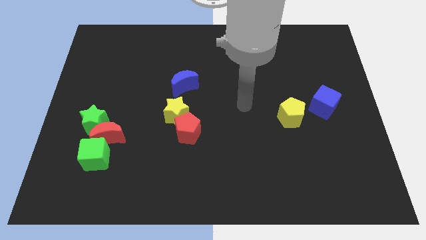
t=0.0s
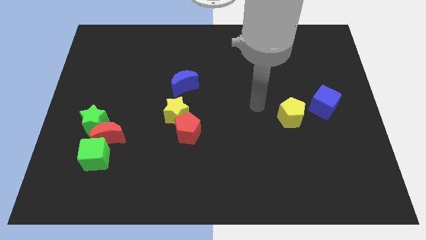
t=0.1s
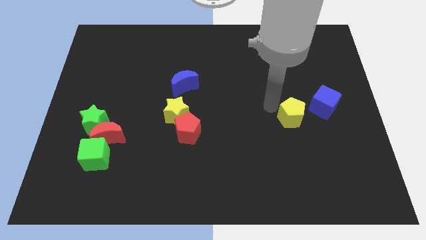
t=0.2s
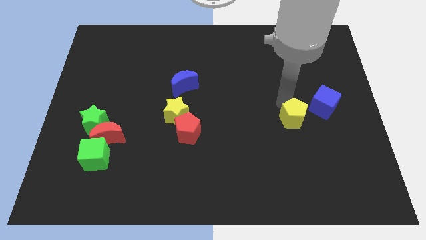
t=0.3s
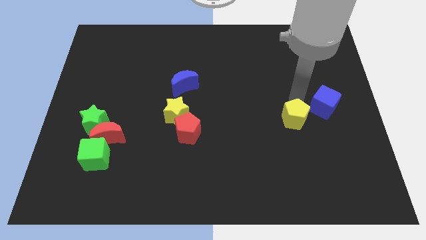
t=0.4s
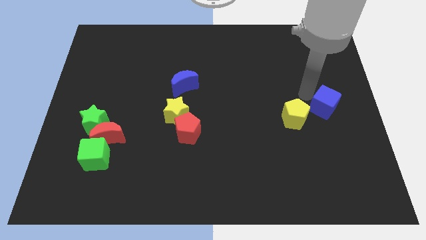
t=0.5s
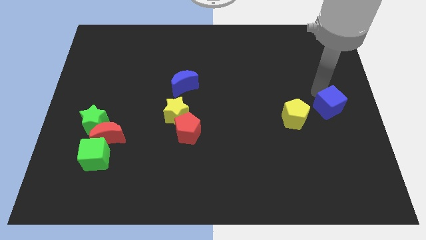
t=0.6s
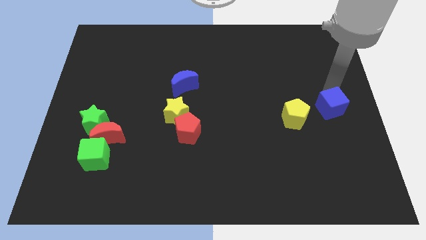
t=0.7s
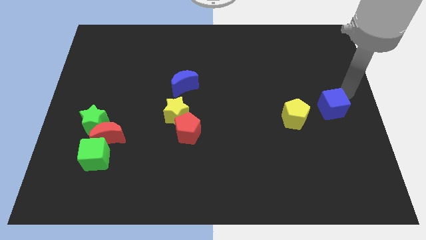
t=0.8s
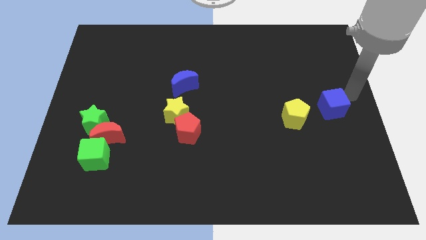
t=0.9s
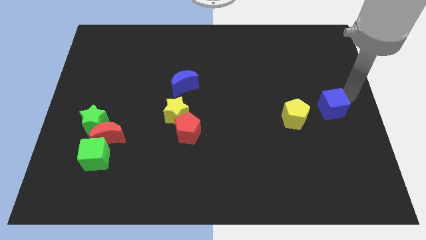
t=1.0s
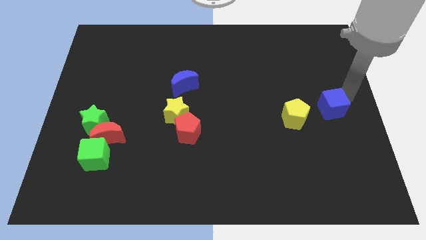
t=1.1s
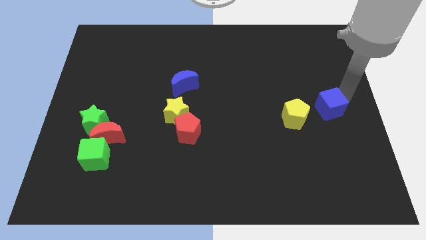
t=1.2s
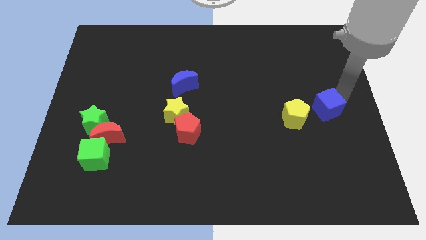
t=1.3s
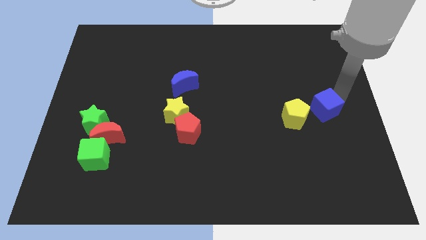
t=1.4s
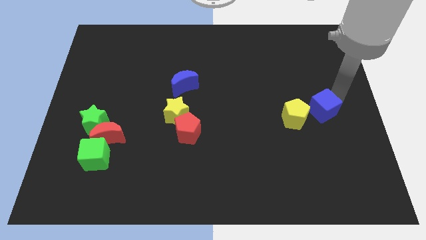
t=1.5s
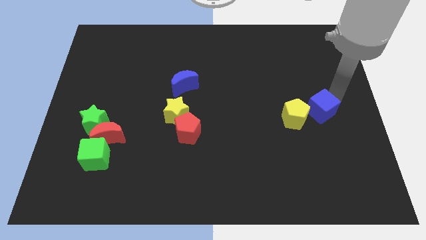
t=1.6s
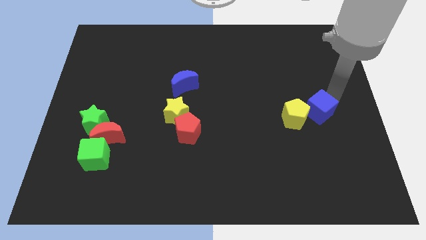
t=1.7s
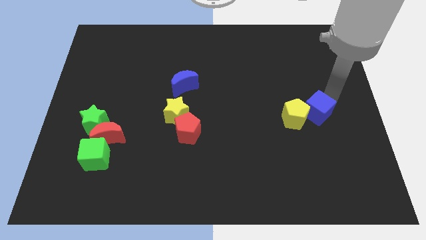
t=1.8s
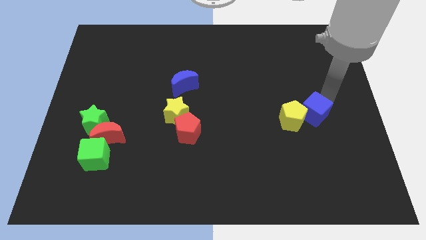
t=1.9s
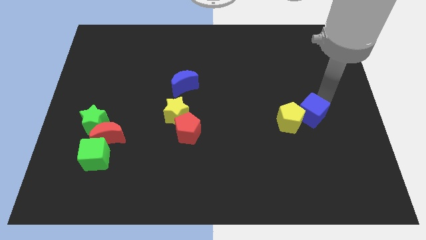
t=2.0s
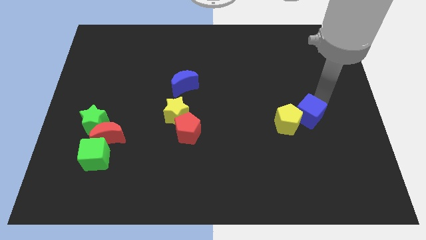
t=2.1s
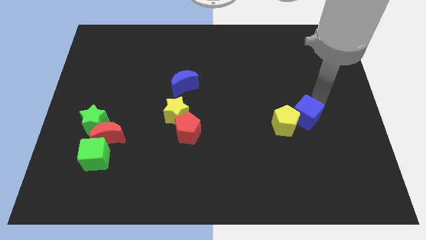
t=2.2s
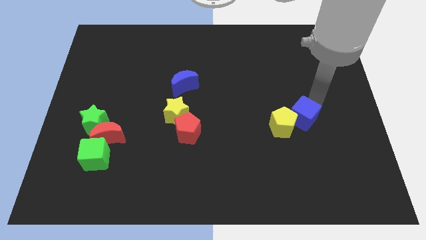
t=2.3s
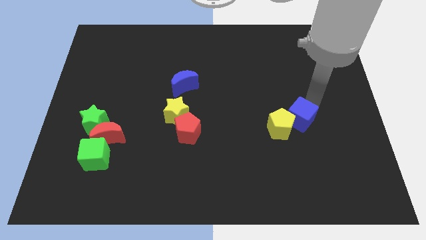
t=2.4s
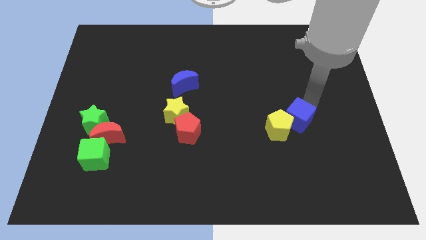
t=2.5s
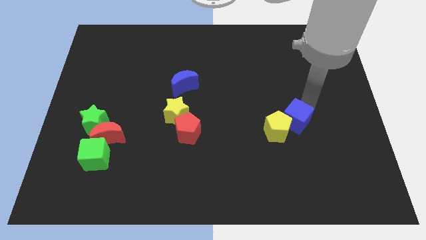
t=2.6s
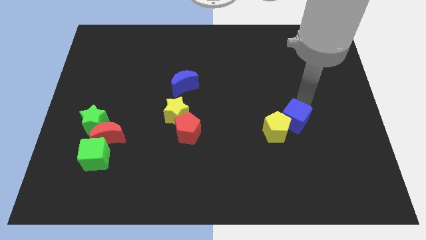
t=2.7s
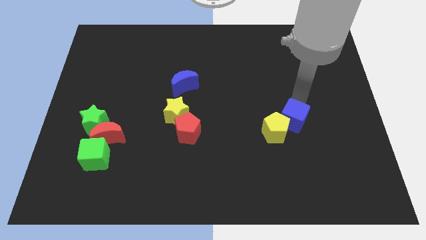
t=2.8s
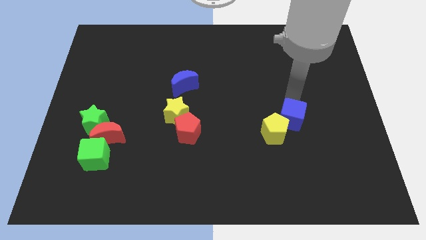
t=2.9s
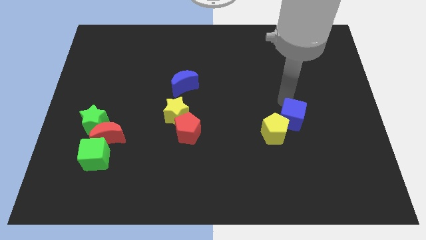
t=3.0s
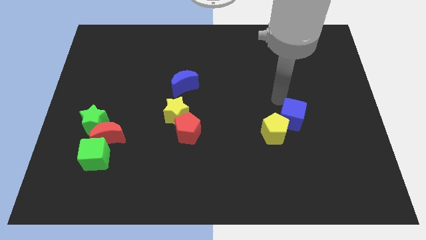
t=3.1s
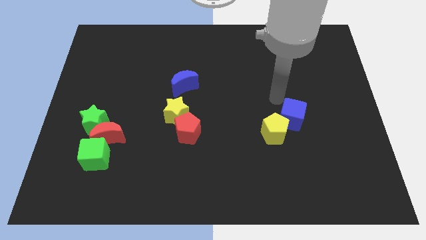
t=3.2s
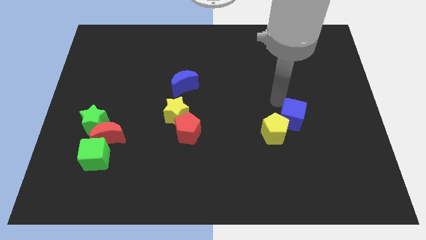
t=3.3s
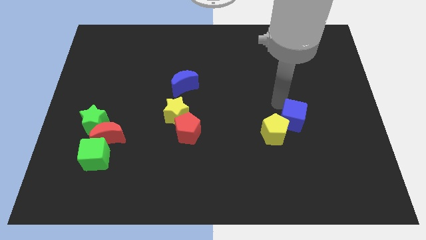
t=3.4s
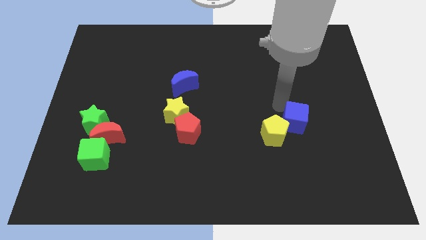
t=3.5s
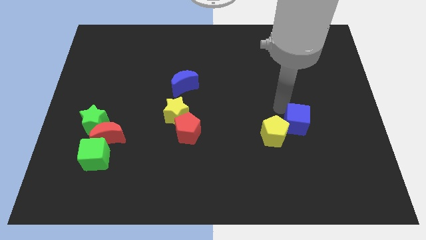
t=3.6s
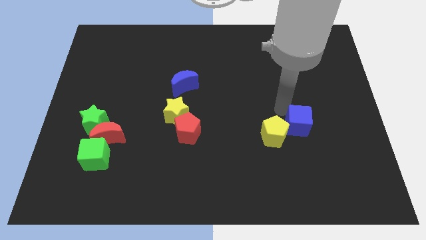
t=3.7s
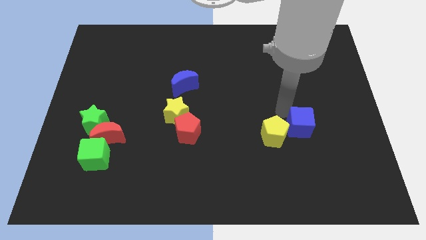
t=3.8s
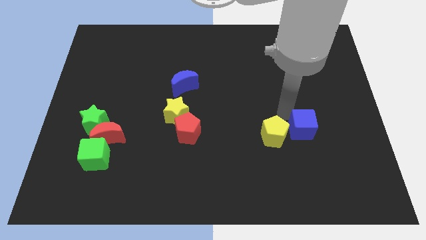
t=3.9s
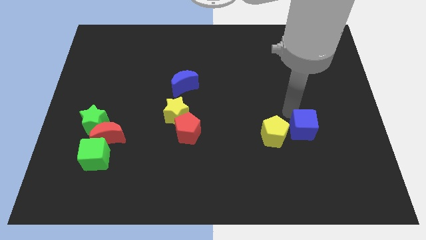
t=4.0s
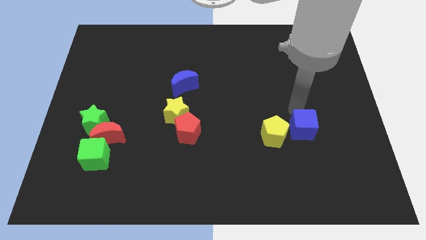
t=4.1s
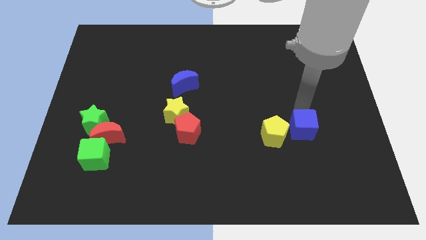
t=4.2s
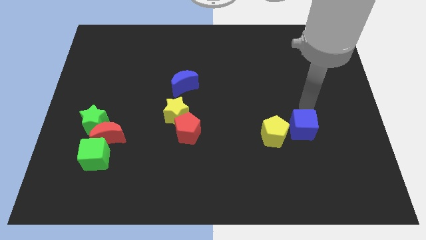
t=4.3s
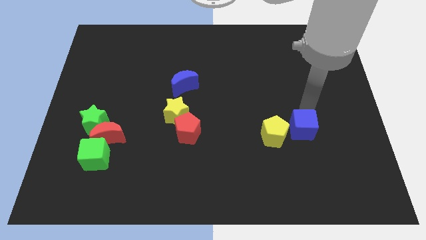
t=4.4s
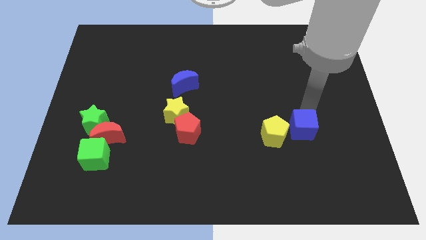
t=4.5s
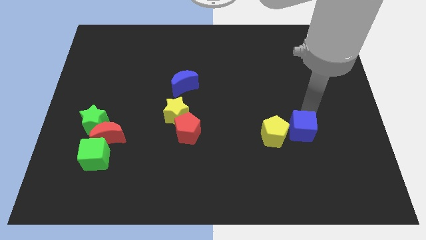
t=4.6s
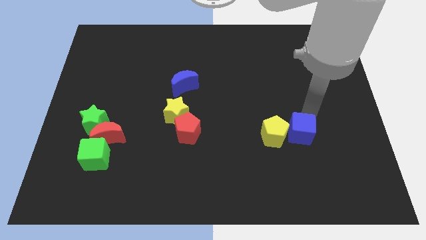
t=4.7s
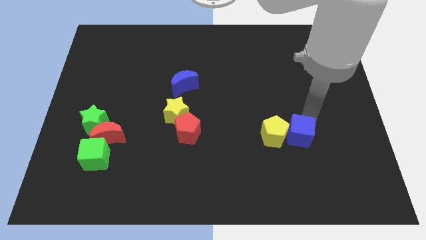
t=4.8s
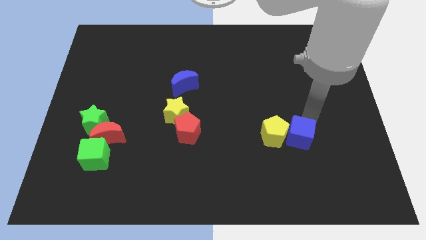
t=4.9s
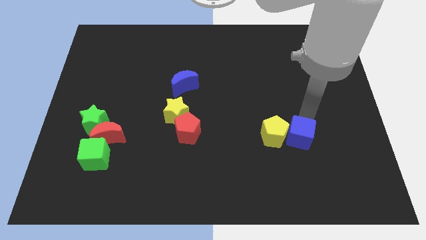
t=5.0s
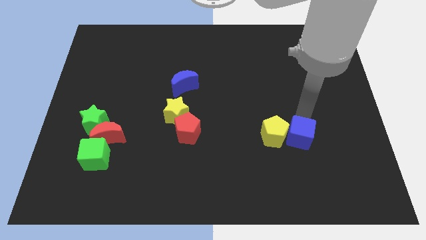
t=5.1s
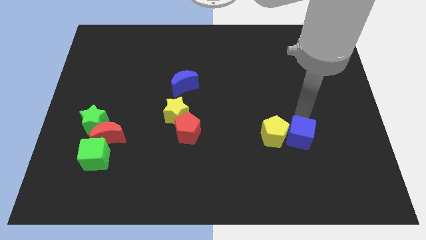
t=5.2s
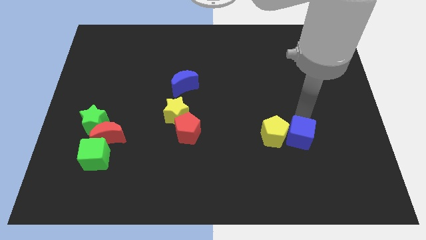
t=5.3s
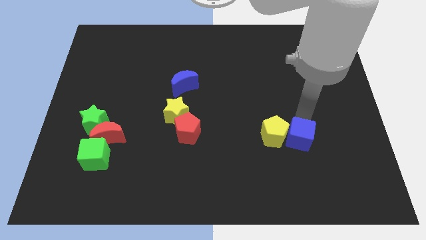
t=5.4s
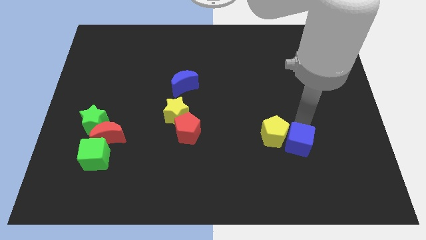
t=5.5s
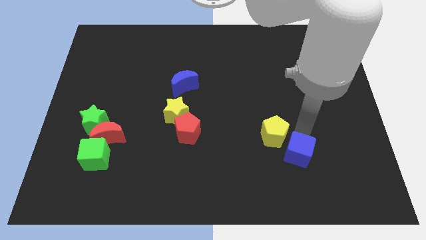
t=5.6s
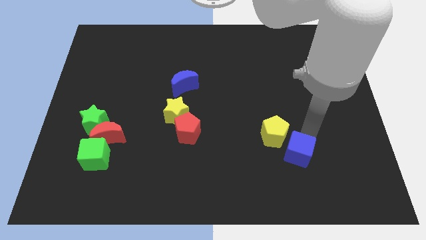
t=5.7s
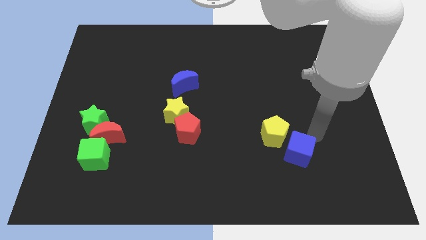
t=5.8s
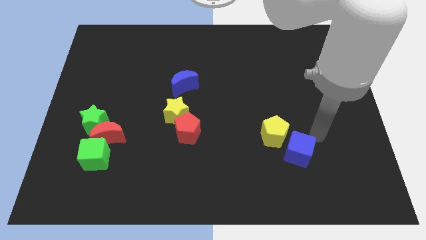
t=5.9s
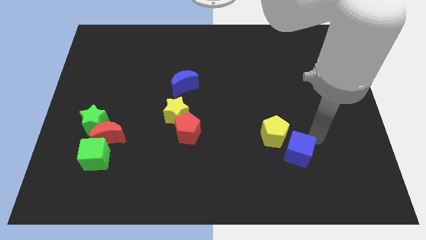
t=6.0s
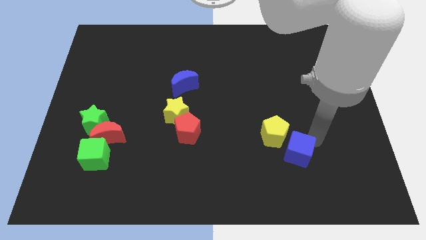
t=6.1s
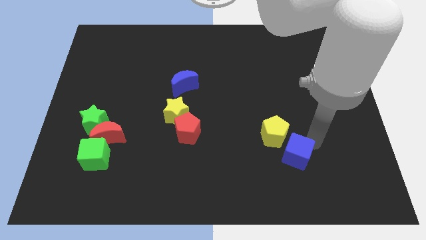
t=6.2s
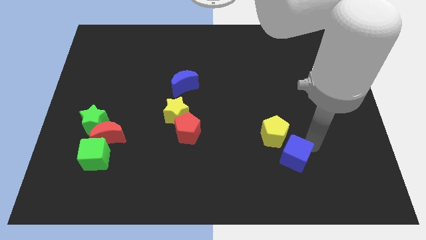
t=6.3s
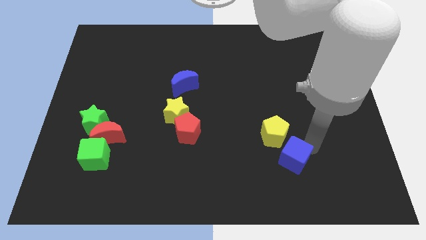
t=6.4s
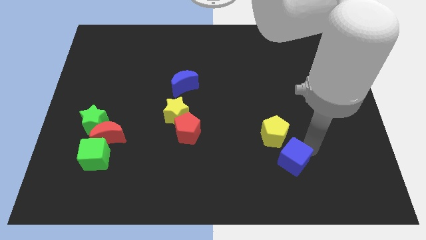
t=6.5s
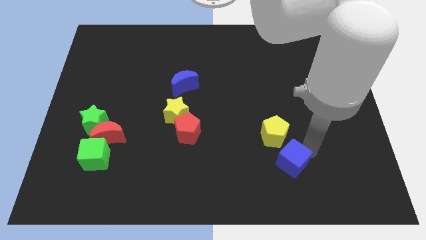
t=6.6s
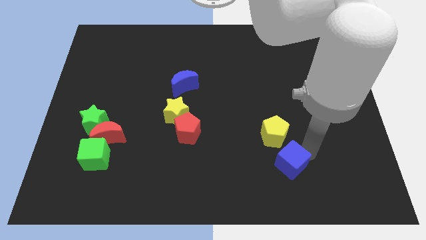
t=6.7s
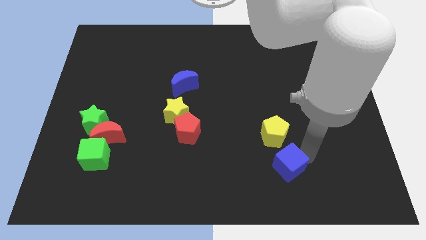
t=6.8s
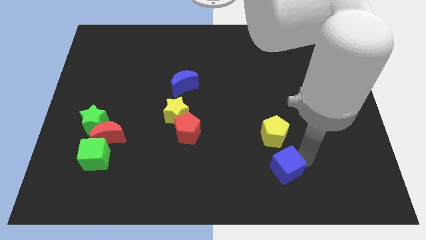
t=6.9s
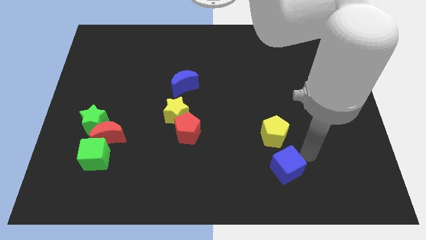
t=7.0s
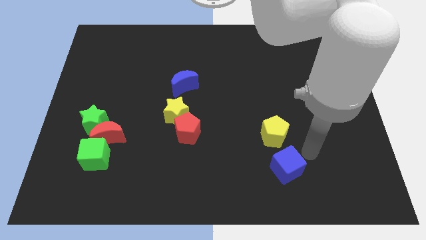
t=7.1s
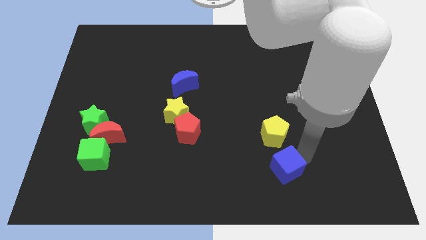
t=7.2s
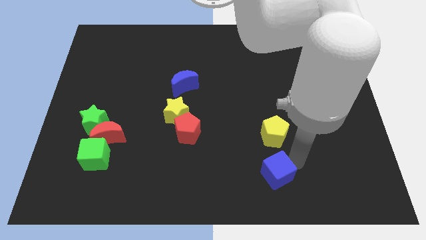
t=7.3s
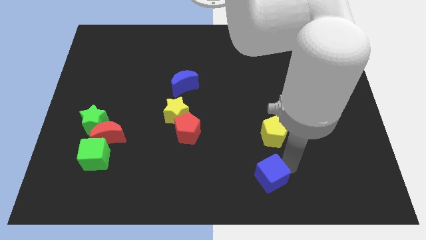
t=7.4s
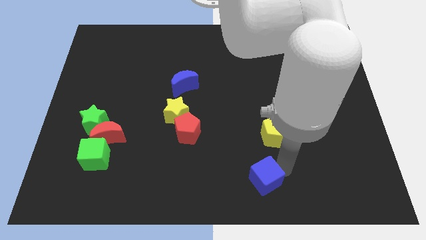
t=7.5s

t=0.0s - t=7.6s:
move the blue cube to the bottom
